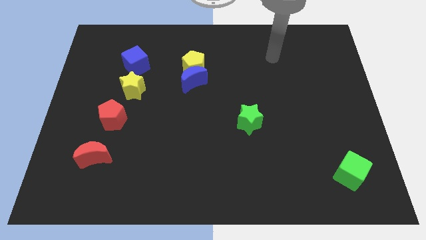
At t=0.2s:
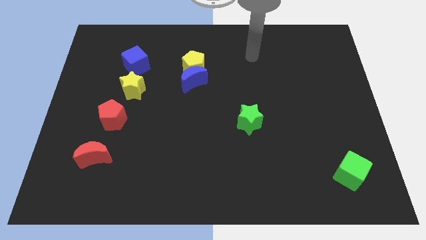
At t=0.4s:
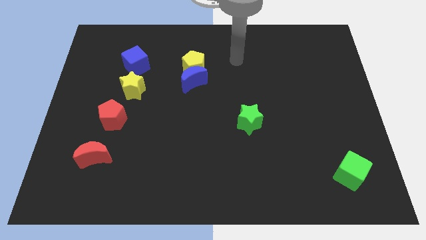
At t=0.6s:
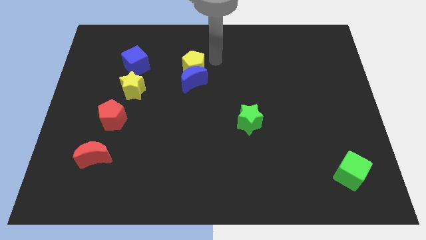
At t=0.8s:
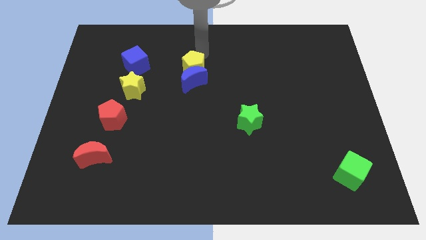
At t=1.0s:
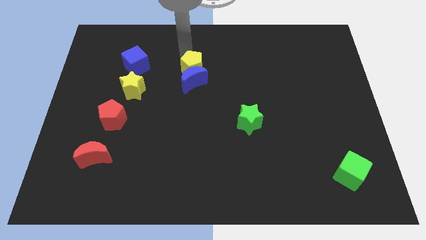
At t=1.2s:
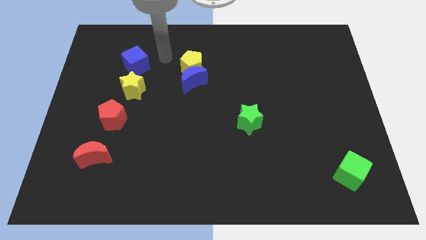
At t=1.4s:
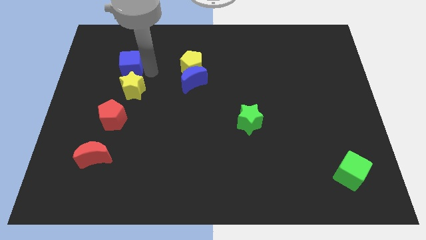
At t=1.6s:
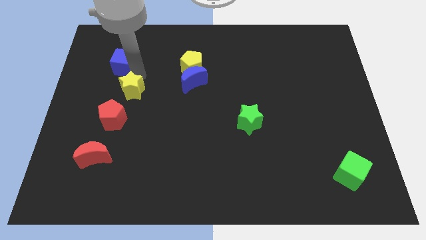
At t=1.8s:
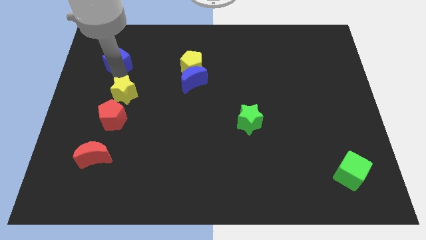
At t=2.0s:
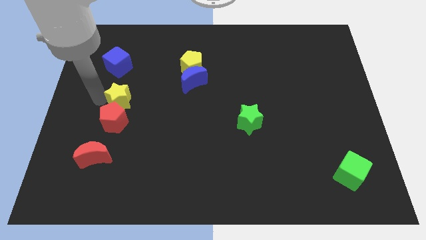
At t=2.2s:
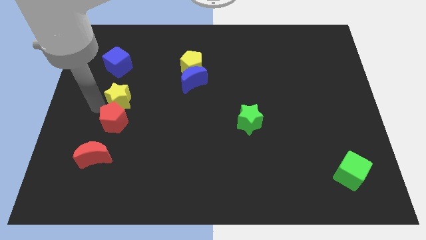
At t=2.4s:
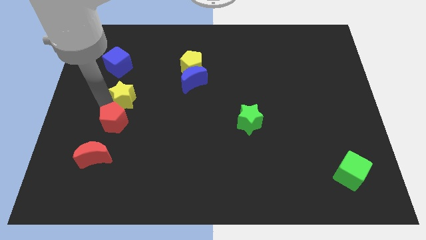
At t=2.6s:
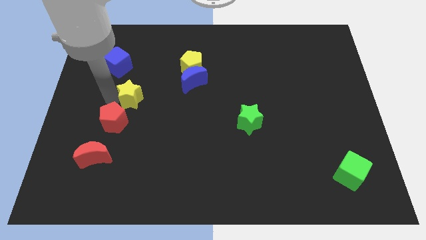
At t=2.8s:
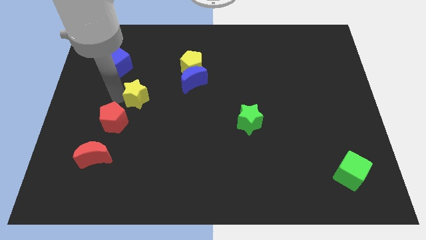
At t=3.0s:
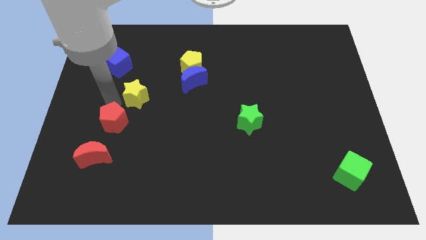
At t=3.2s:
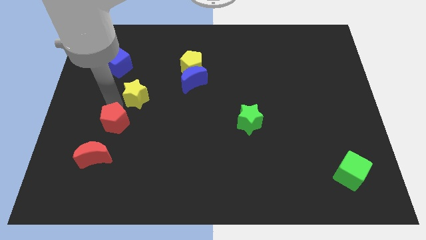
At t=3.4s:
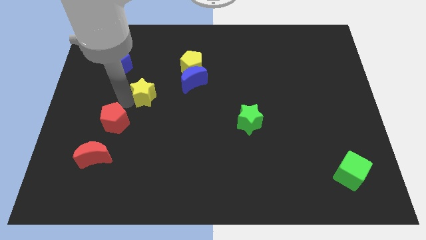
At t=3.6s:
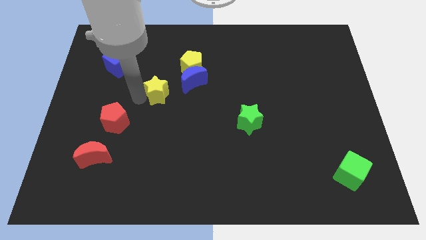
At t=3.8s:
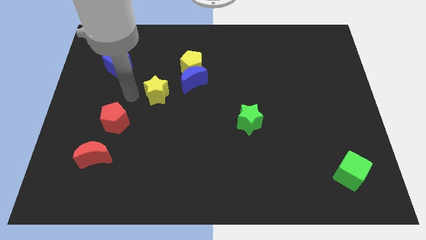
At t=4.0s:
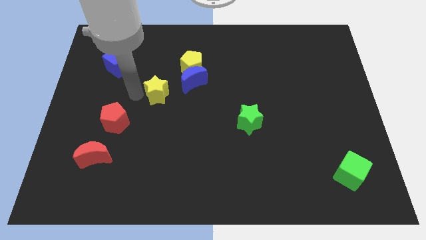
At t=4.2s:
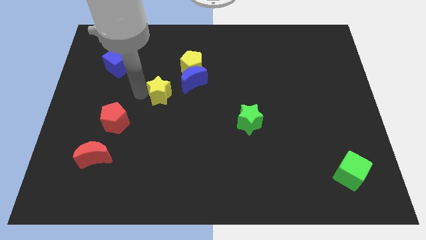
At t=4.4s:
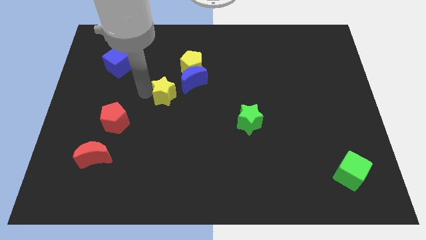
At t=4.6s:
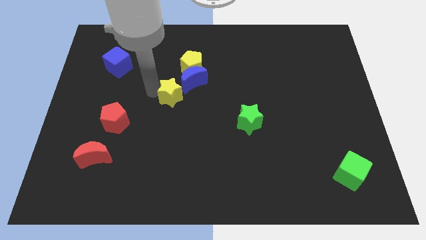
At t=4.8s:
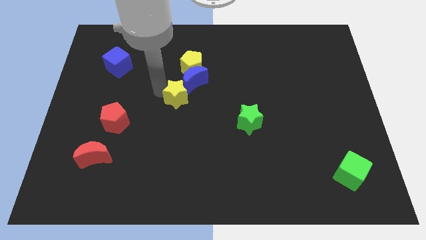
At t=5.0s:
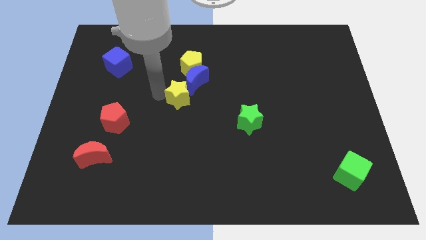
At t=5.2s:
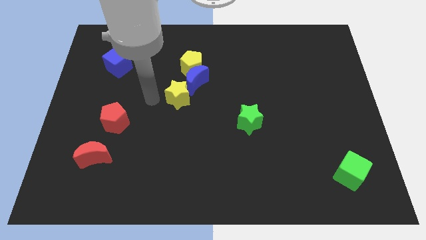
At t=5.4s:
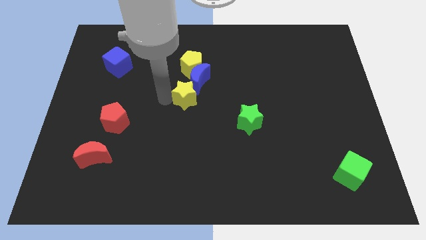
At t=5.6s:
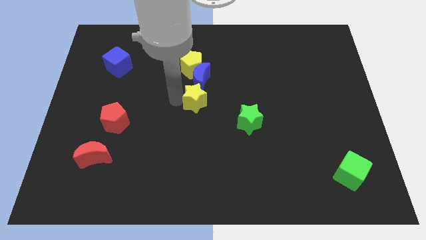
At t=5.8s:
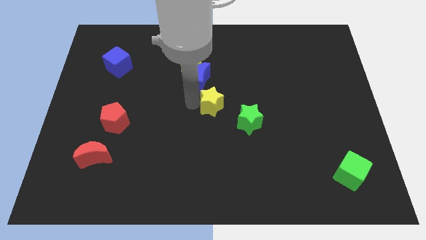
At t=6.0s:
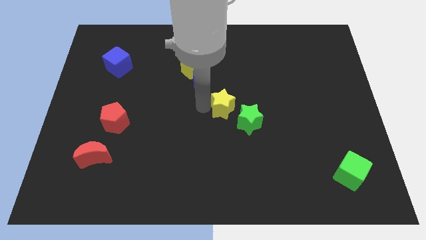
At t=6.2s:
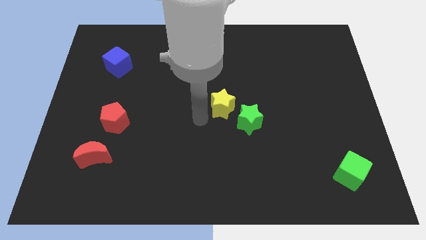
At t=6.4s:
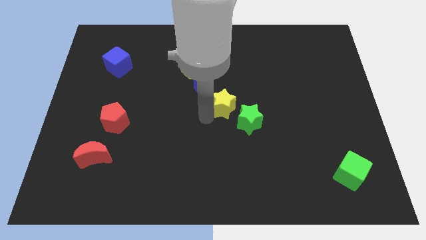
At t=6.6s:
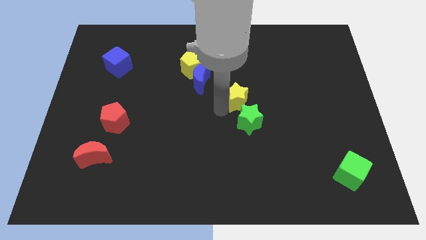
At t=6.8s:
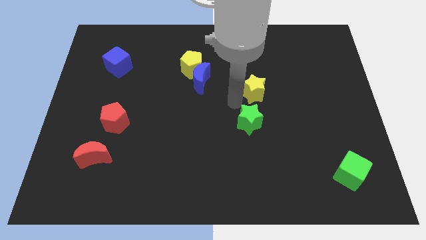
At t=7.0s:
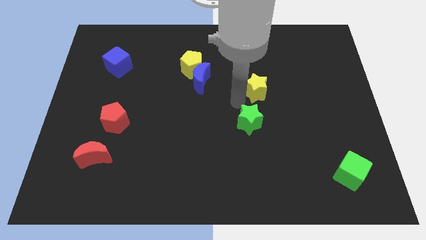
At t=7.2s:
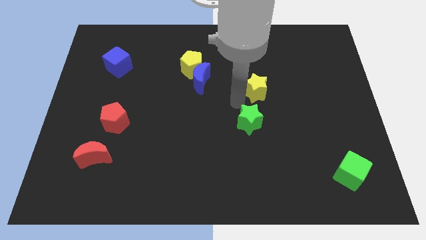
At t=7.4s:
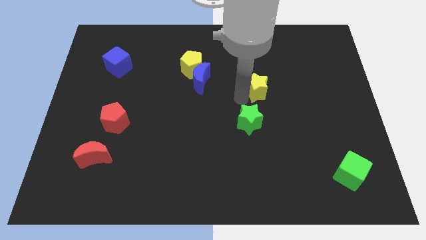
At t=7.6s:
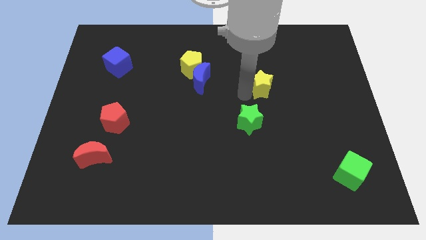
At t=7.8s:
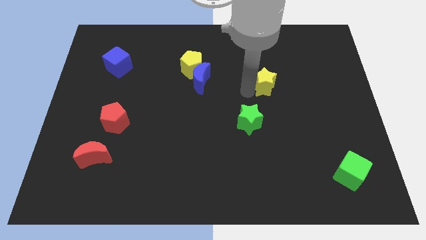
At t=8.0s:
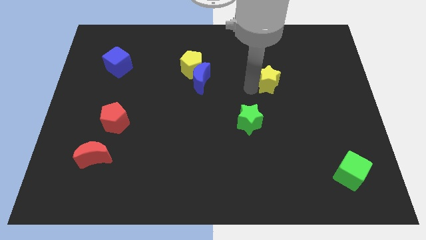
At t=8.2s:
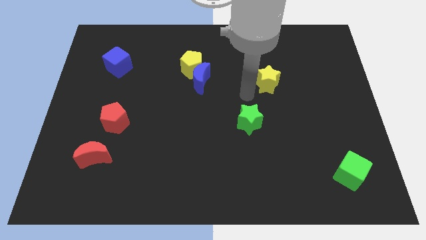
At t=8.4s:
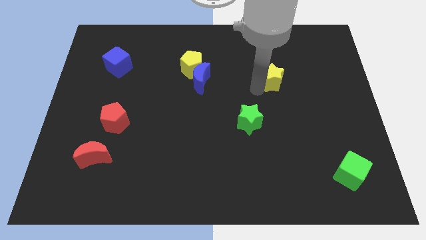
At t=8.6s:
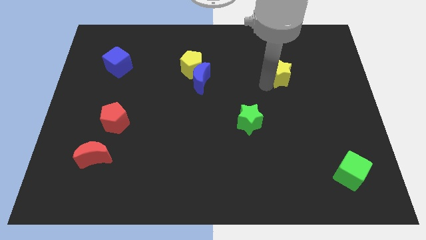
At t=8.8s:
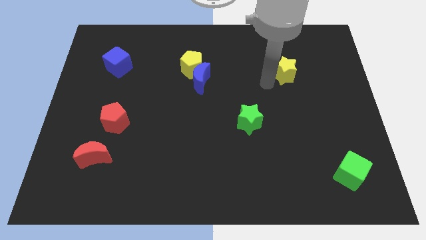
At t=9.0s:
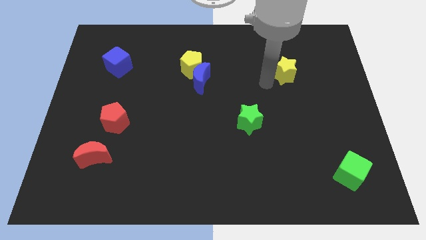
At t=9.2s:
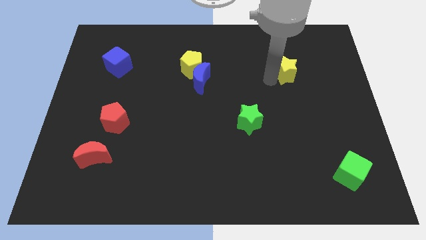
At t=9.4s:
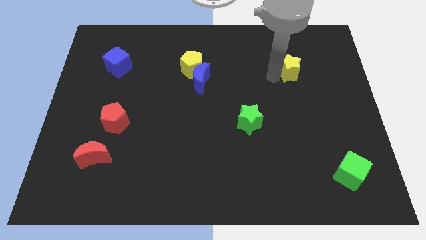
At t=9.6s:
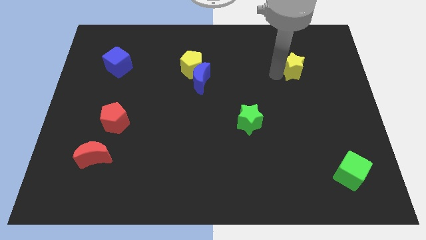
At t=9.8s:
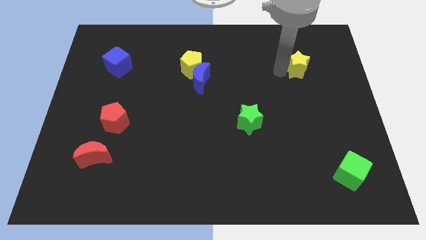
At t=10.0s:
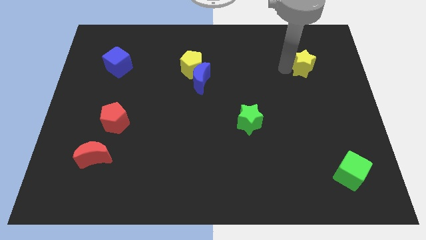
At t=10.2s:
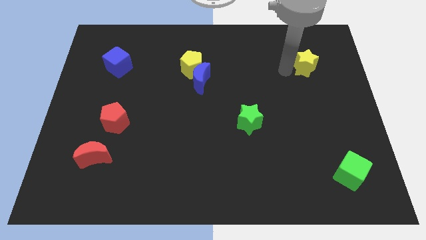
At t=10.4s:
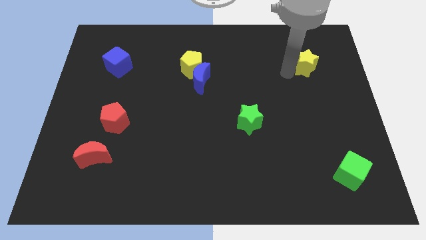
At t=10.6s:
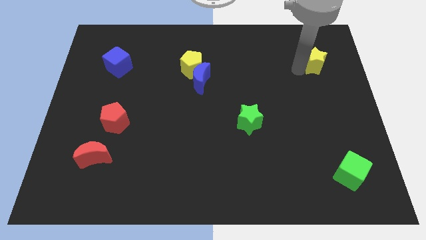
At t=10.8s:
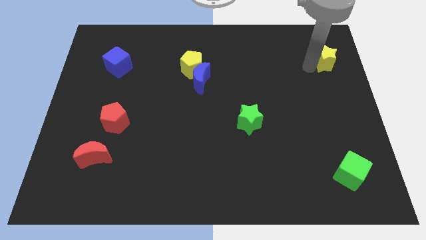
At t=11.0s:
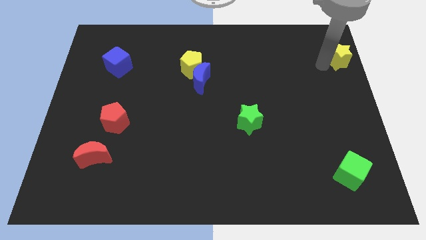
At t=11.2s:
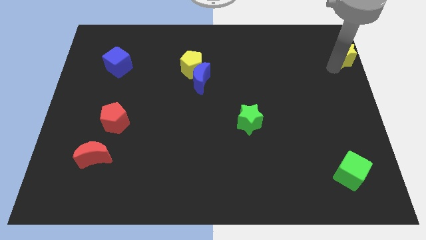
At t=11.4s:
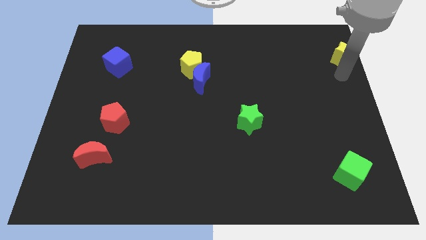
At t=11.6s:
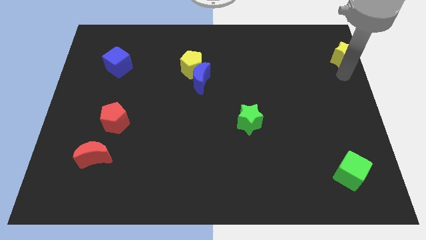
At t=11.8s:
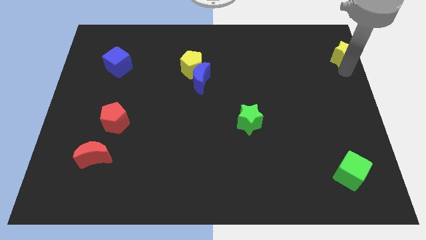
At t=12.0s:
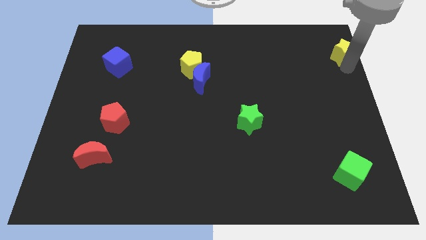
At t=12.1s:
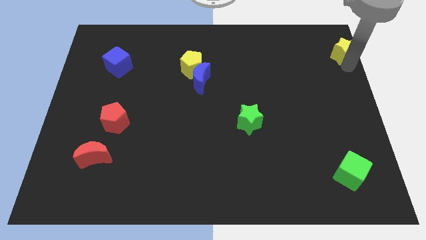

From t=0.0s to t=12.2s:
move the yellow star to the top right corner

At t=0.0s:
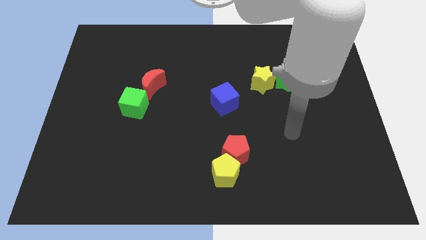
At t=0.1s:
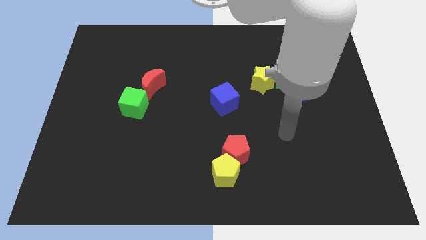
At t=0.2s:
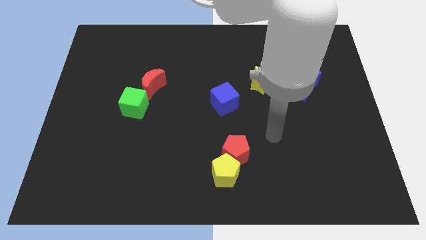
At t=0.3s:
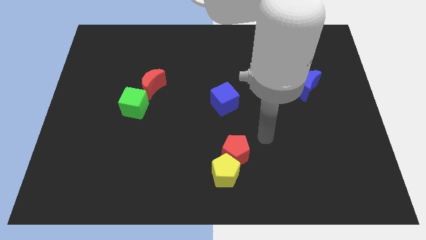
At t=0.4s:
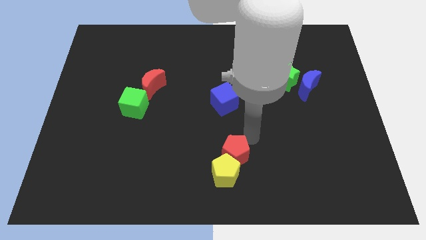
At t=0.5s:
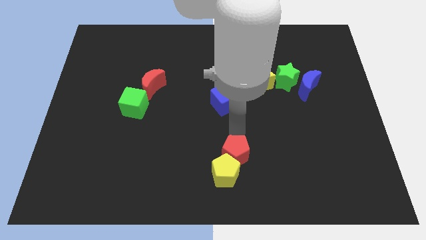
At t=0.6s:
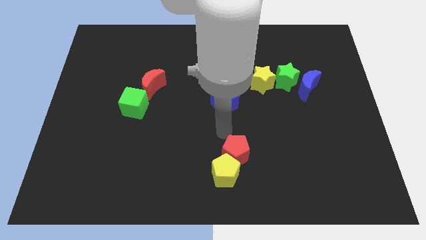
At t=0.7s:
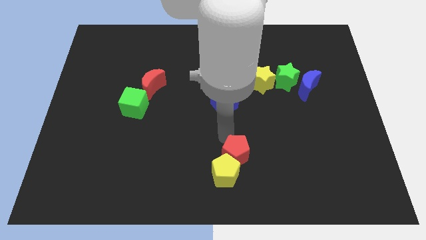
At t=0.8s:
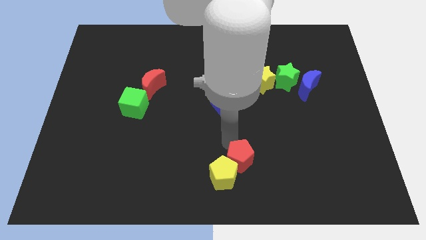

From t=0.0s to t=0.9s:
slide the red pentagon to the bottom
